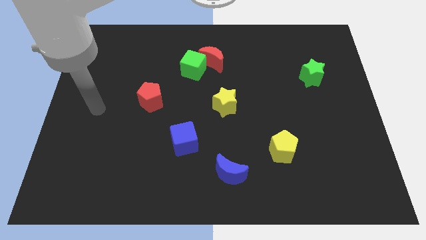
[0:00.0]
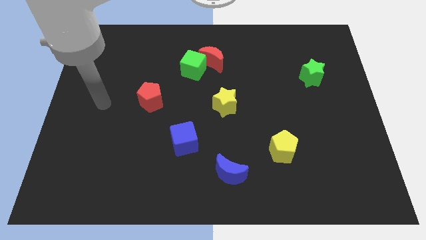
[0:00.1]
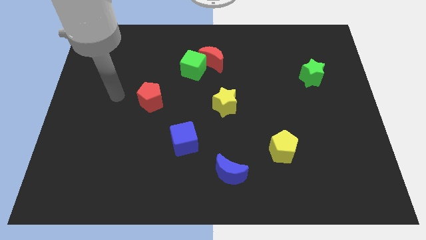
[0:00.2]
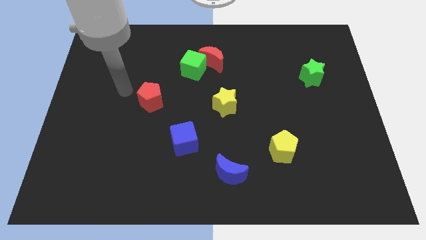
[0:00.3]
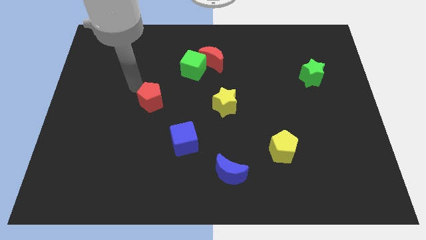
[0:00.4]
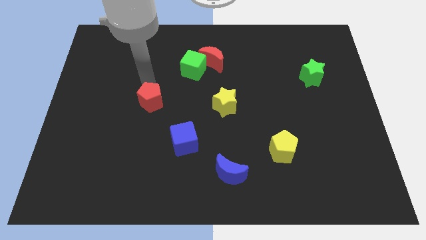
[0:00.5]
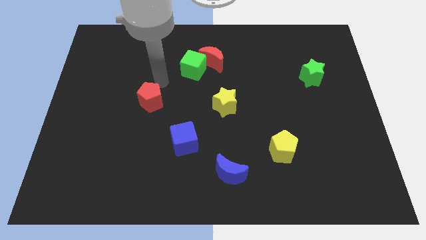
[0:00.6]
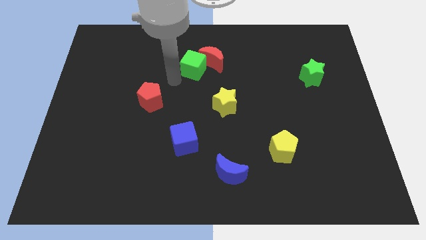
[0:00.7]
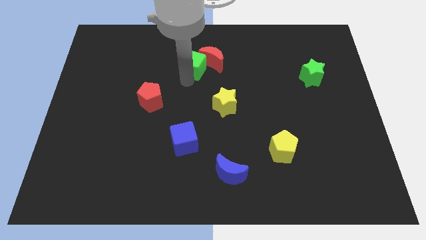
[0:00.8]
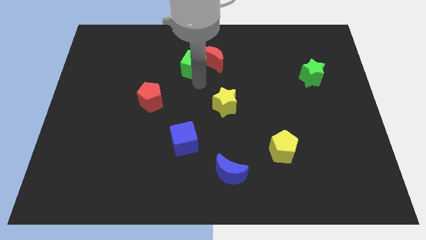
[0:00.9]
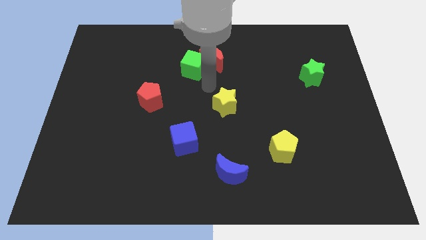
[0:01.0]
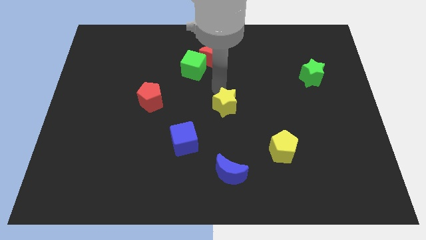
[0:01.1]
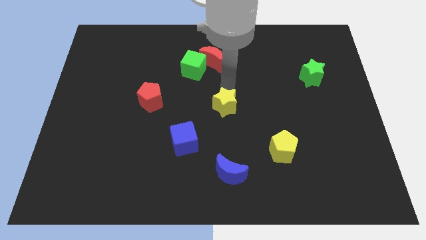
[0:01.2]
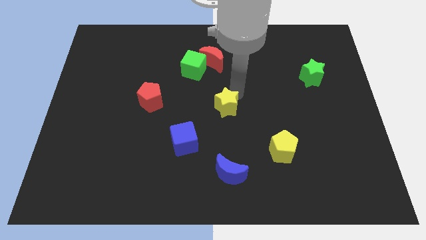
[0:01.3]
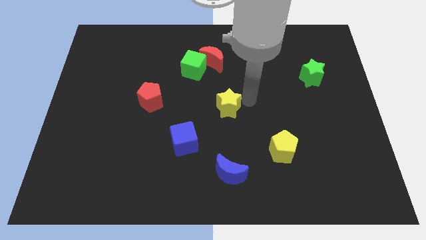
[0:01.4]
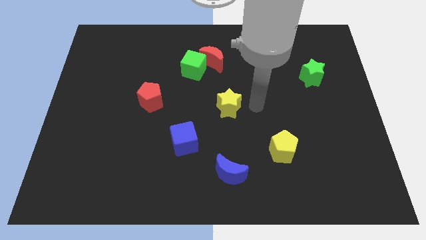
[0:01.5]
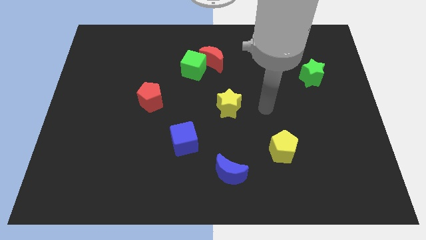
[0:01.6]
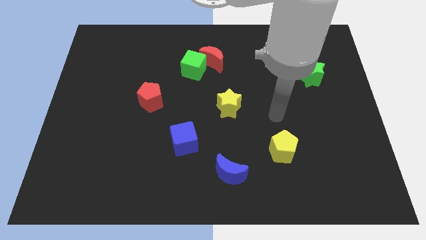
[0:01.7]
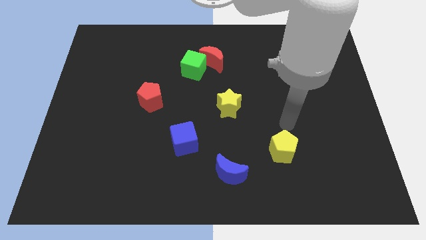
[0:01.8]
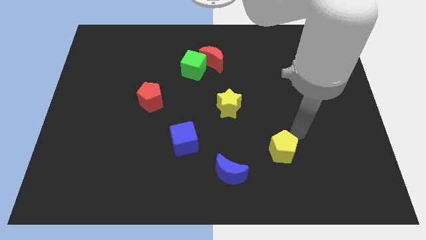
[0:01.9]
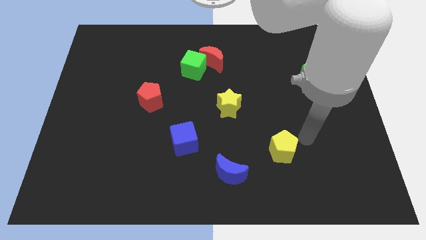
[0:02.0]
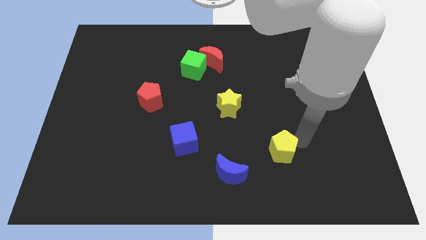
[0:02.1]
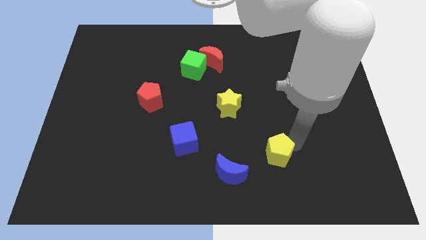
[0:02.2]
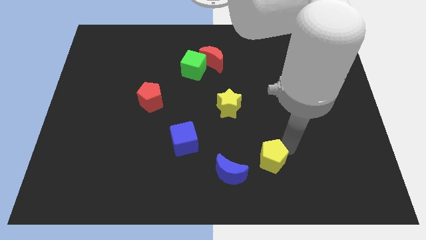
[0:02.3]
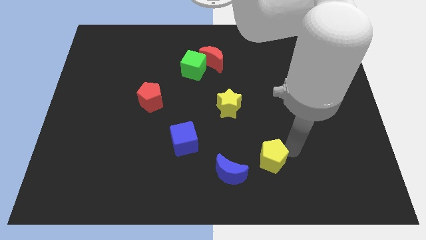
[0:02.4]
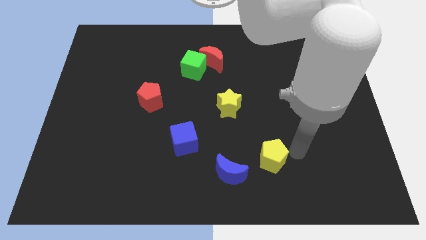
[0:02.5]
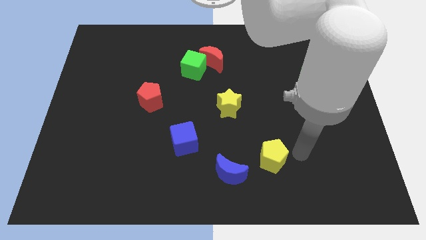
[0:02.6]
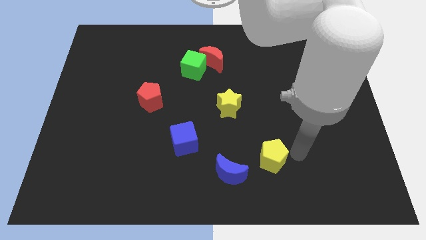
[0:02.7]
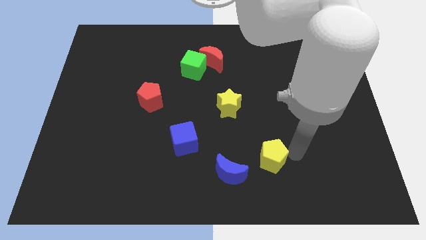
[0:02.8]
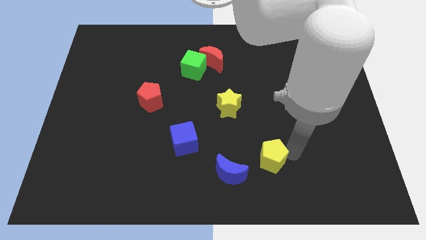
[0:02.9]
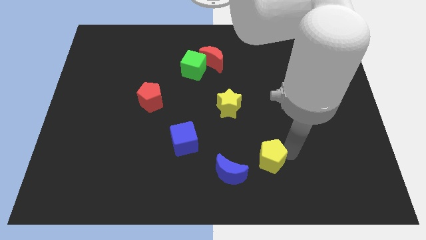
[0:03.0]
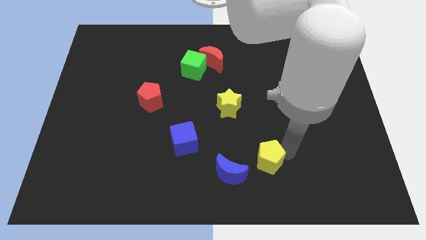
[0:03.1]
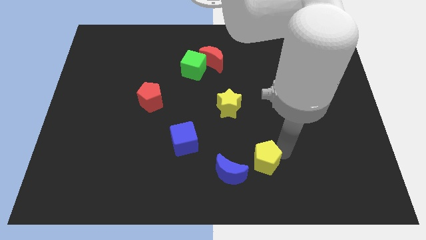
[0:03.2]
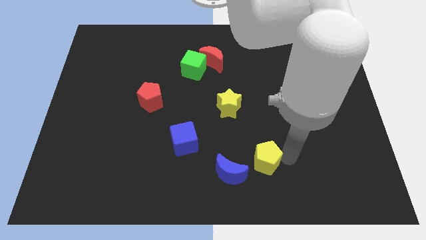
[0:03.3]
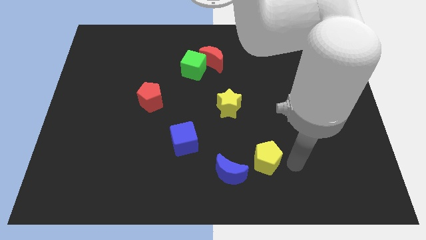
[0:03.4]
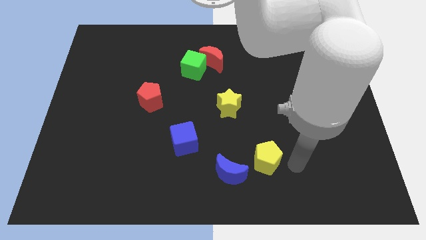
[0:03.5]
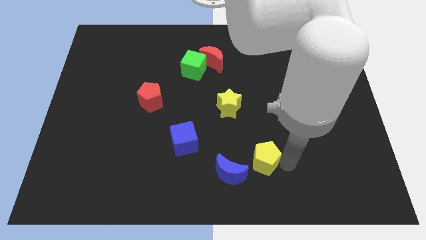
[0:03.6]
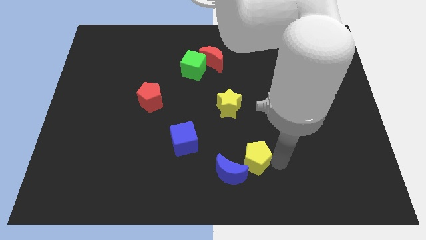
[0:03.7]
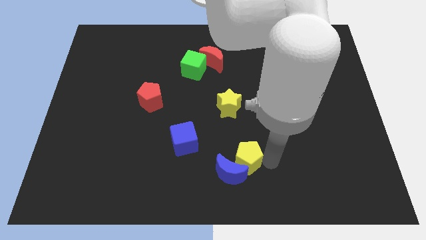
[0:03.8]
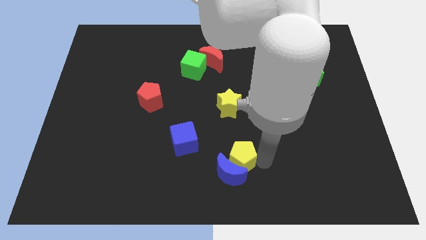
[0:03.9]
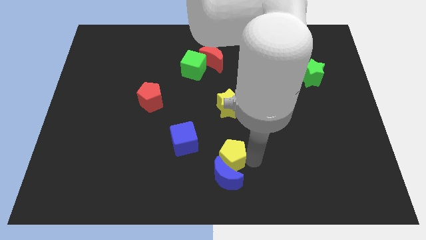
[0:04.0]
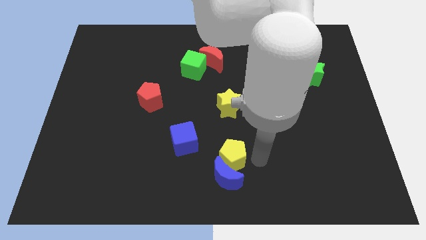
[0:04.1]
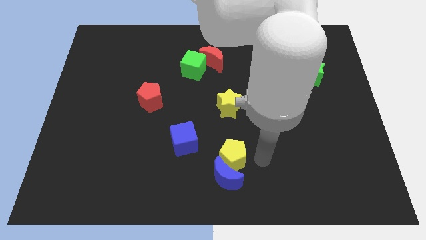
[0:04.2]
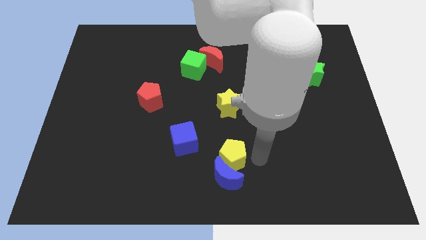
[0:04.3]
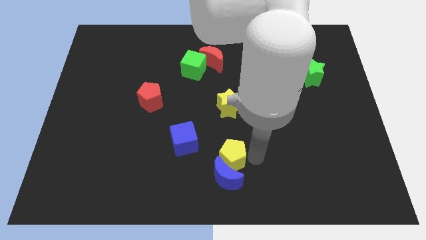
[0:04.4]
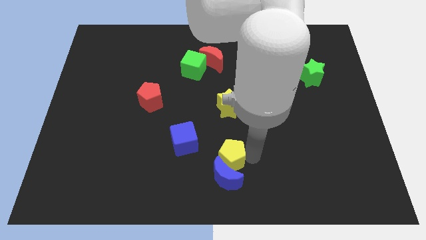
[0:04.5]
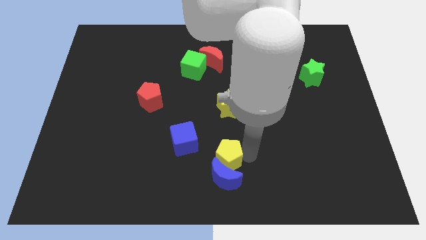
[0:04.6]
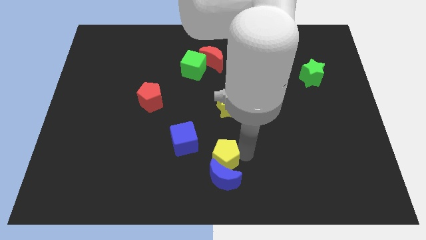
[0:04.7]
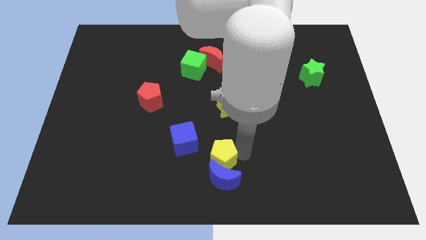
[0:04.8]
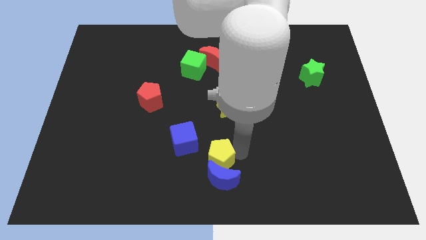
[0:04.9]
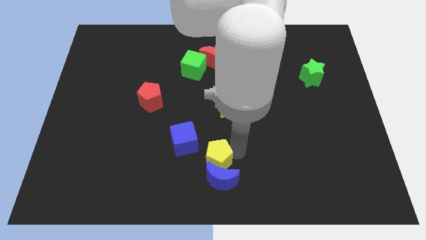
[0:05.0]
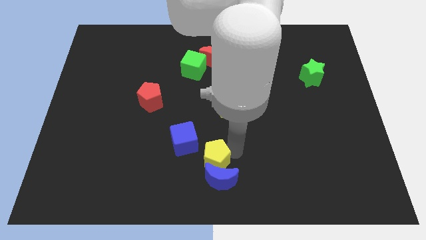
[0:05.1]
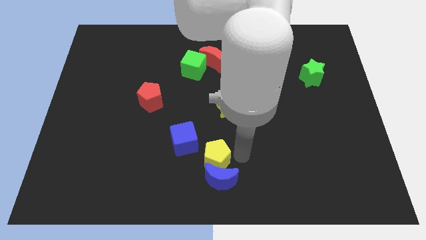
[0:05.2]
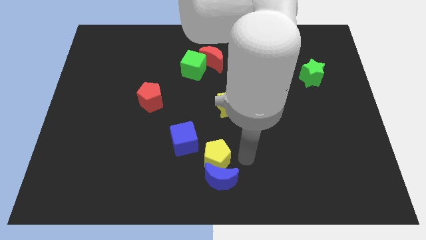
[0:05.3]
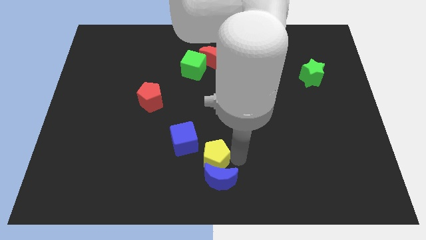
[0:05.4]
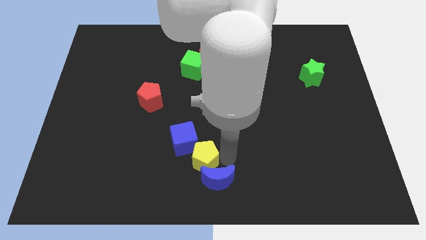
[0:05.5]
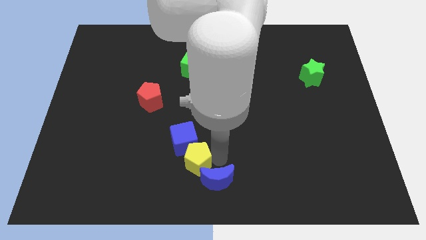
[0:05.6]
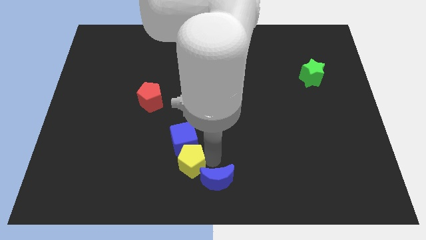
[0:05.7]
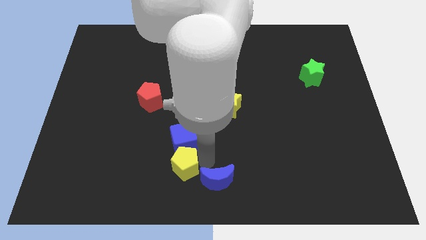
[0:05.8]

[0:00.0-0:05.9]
push the yellow pentagon to the left

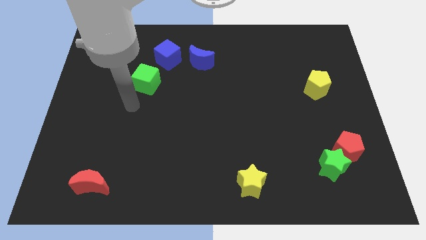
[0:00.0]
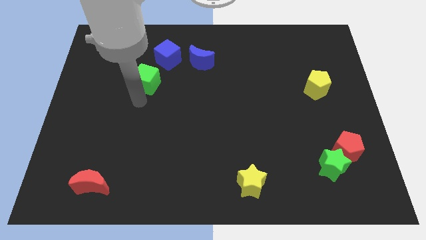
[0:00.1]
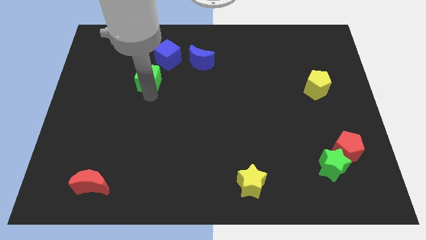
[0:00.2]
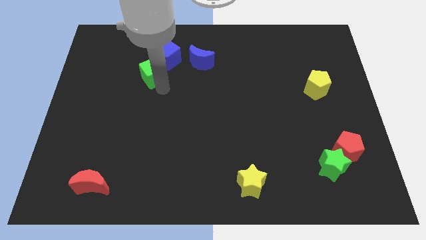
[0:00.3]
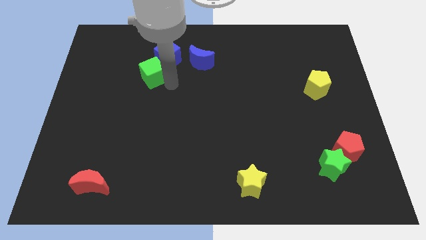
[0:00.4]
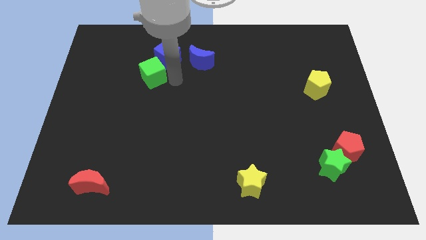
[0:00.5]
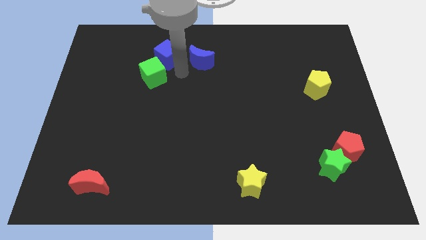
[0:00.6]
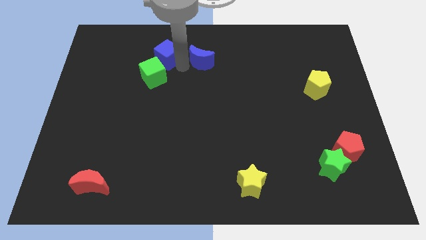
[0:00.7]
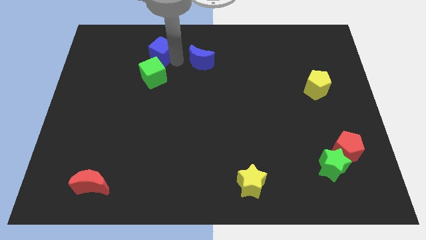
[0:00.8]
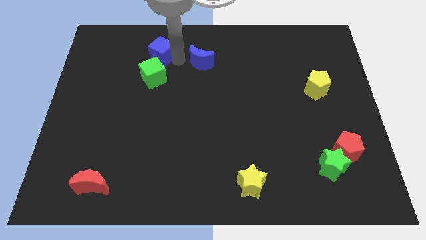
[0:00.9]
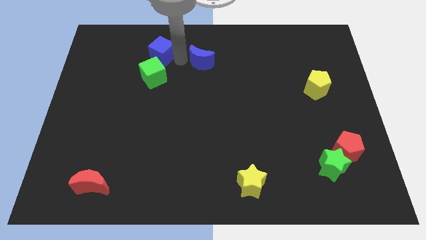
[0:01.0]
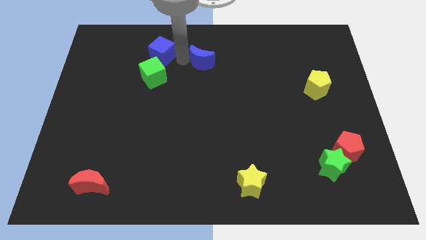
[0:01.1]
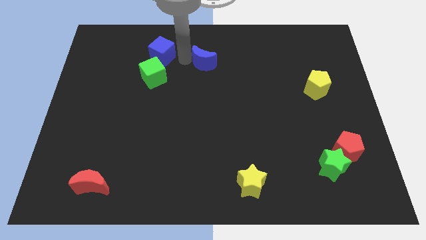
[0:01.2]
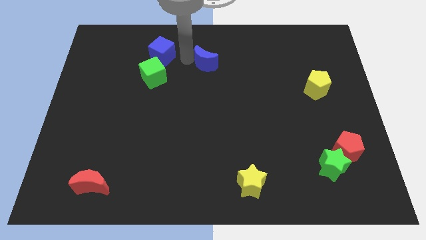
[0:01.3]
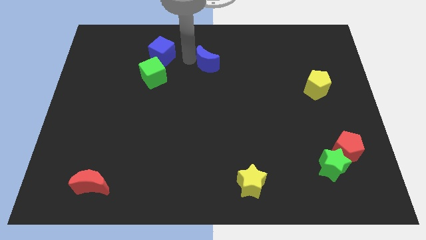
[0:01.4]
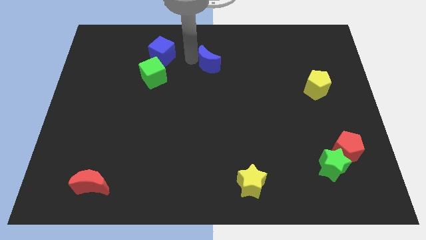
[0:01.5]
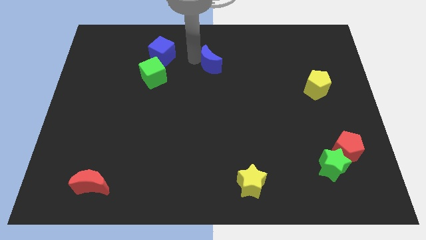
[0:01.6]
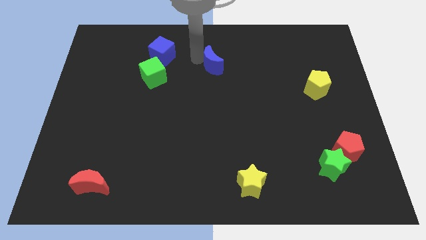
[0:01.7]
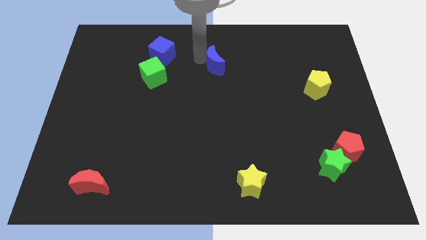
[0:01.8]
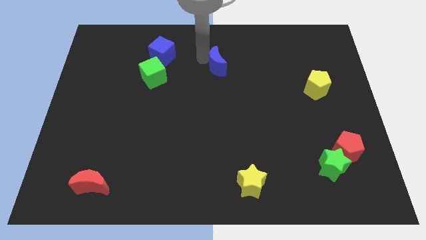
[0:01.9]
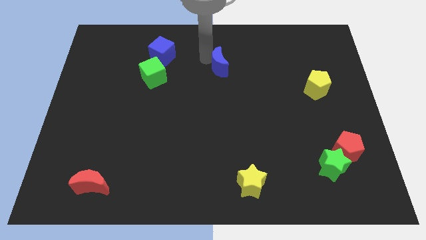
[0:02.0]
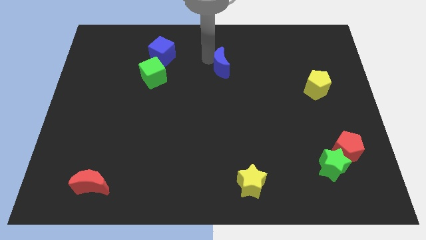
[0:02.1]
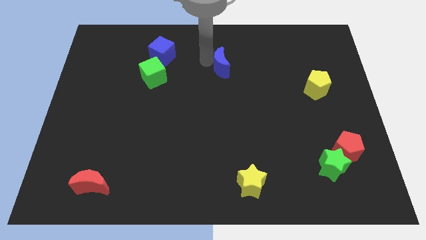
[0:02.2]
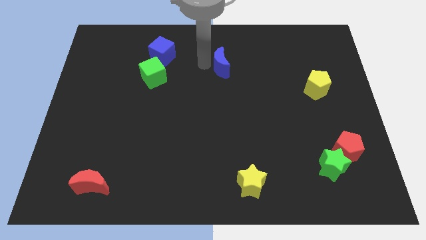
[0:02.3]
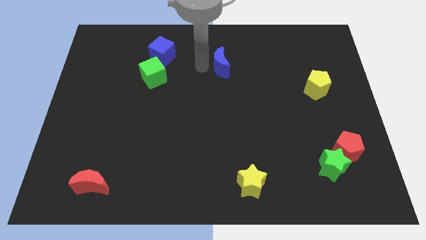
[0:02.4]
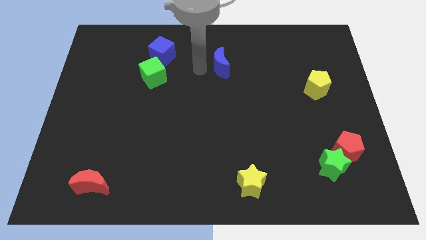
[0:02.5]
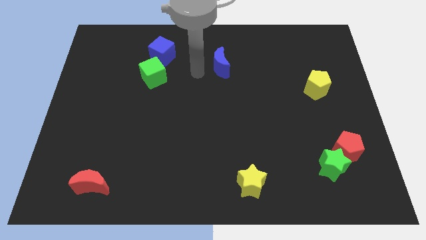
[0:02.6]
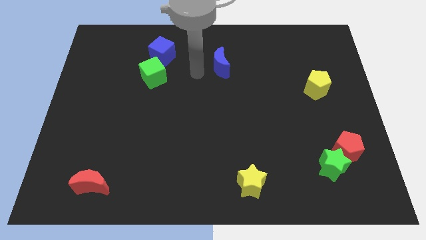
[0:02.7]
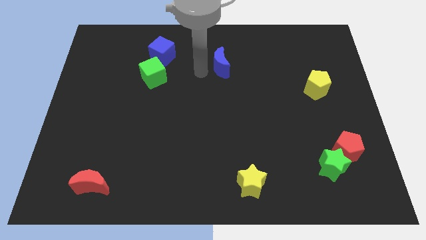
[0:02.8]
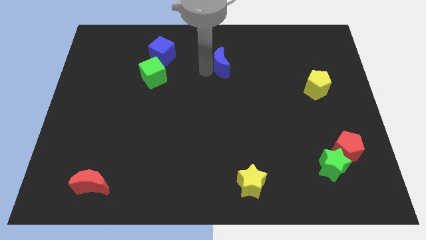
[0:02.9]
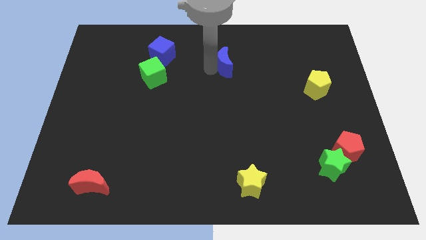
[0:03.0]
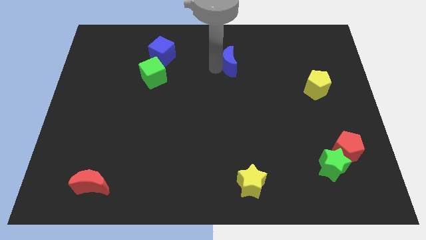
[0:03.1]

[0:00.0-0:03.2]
move the blue moon slightly to the right
